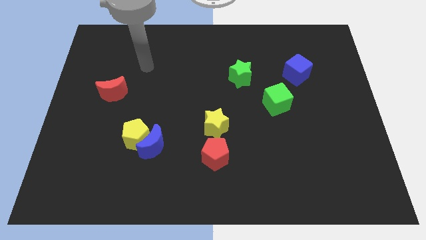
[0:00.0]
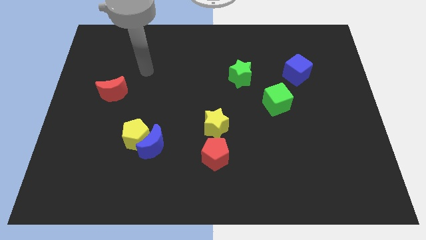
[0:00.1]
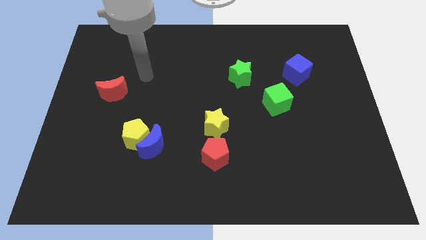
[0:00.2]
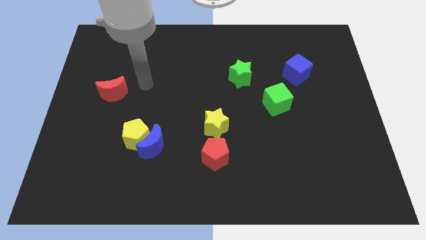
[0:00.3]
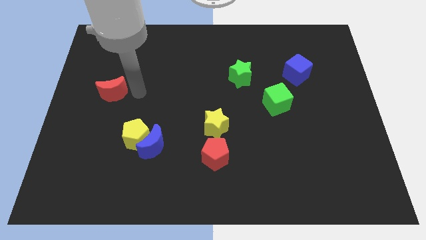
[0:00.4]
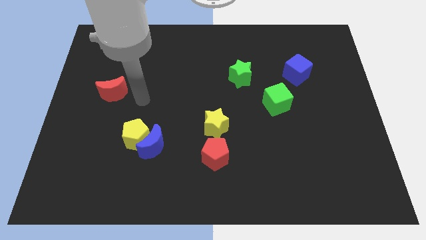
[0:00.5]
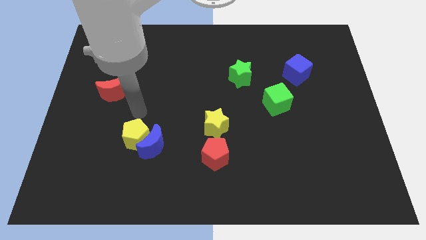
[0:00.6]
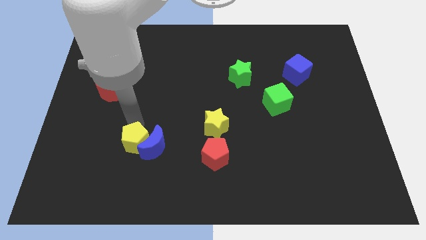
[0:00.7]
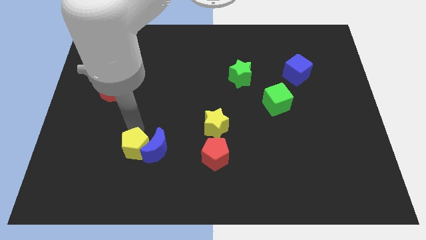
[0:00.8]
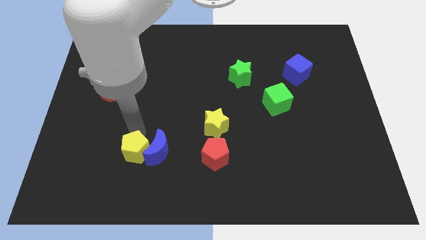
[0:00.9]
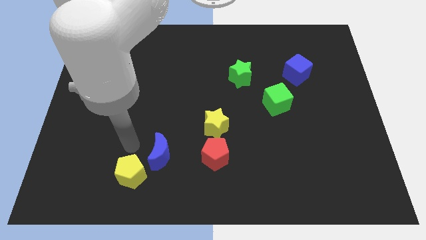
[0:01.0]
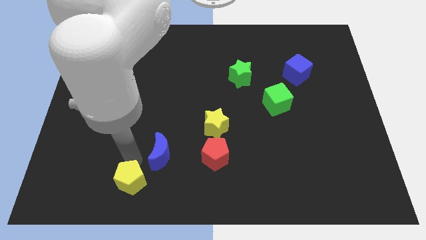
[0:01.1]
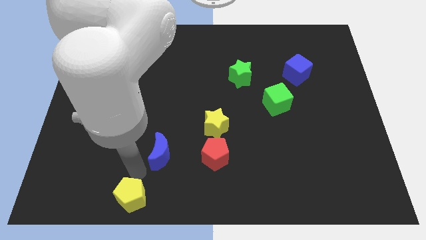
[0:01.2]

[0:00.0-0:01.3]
pull the blue moon apart from the yellow pentagon

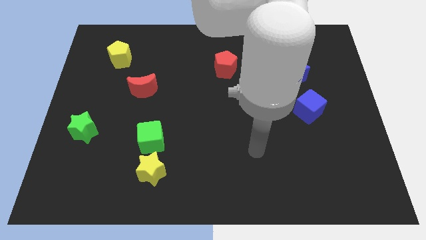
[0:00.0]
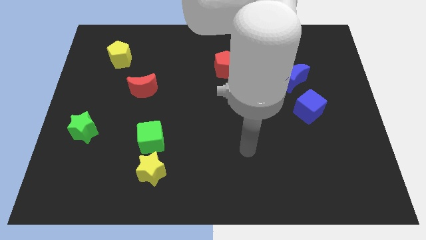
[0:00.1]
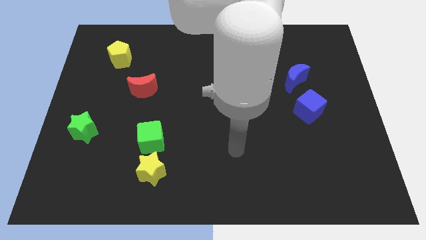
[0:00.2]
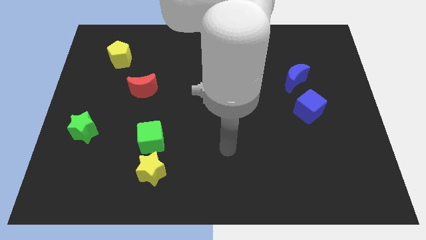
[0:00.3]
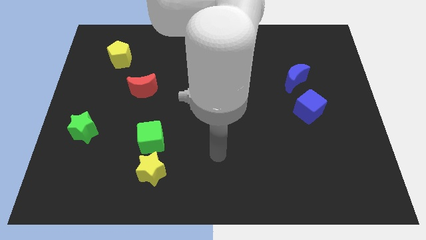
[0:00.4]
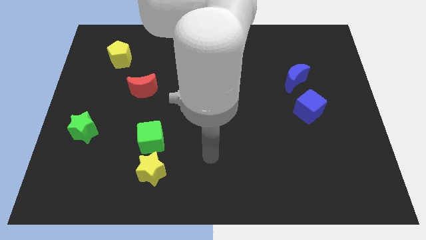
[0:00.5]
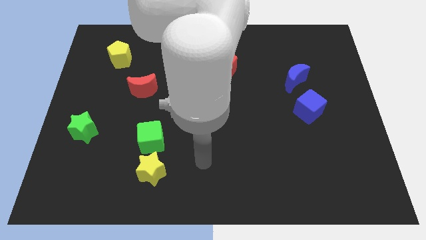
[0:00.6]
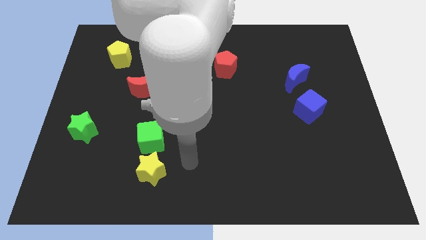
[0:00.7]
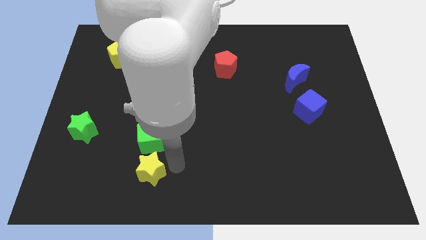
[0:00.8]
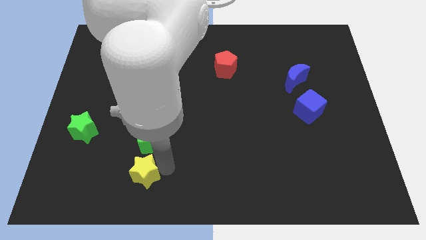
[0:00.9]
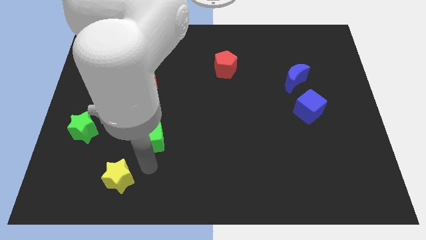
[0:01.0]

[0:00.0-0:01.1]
separate the green cube from the yellow star

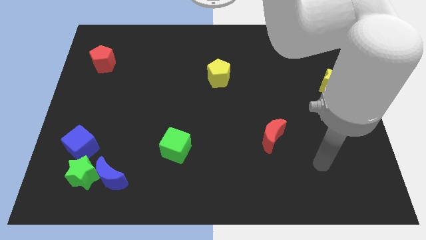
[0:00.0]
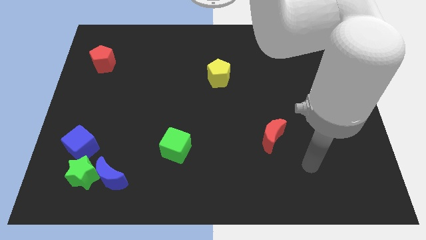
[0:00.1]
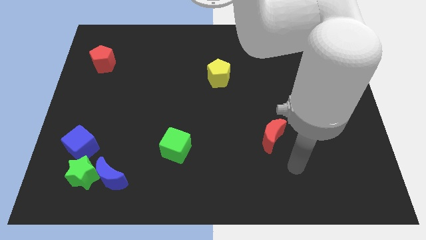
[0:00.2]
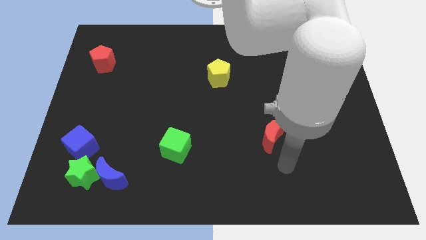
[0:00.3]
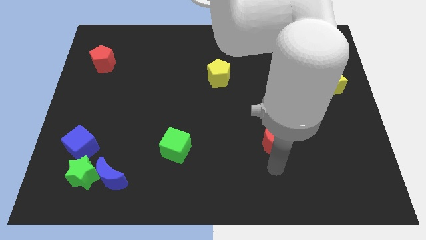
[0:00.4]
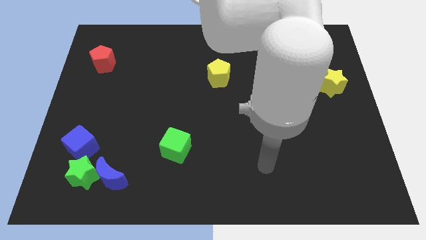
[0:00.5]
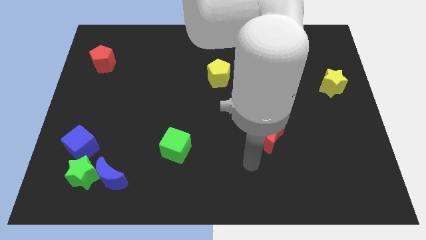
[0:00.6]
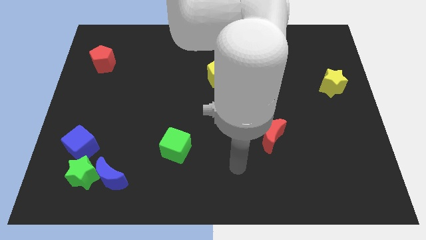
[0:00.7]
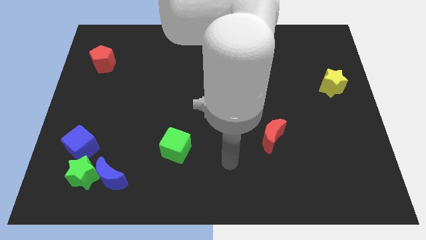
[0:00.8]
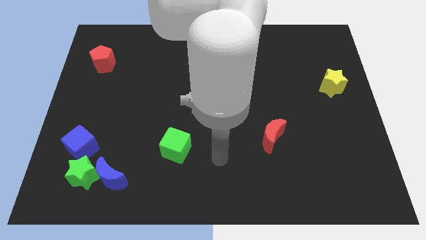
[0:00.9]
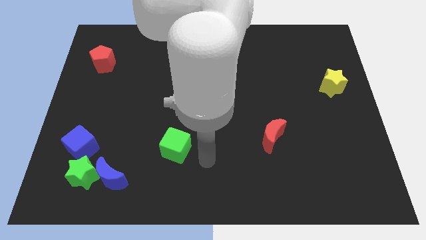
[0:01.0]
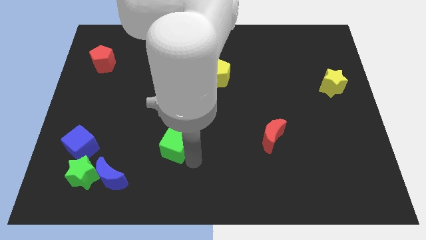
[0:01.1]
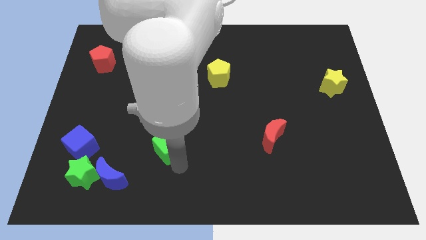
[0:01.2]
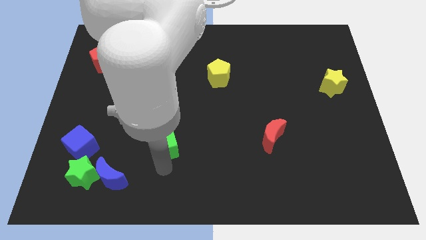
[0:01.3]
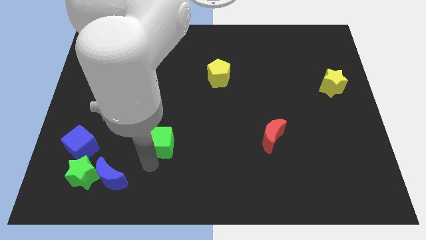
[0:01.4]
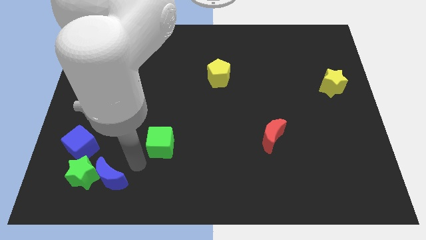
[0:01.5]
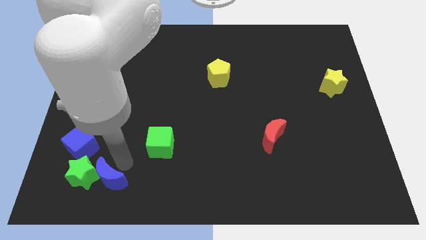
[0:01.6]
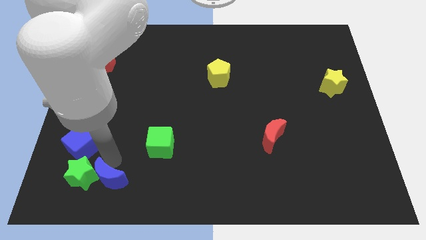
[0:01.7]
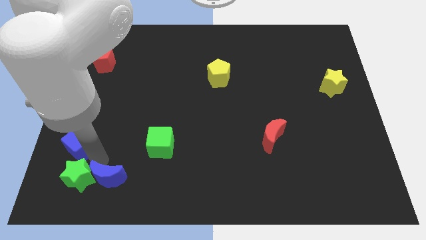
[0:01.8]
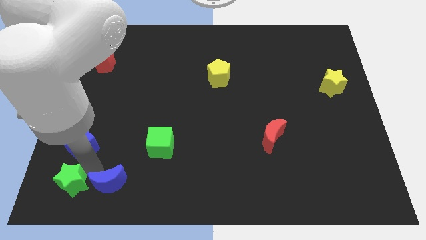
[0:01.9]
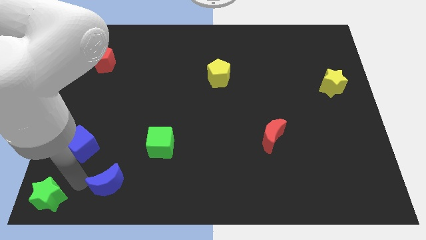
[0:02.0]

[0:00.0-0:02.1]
move the blue moon away from the green star

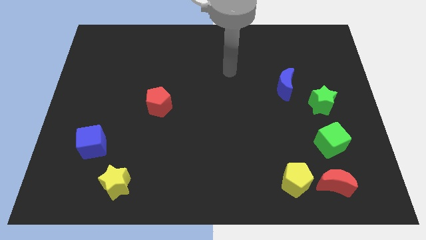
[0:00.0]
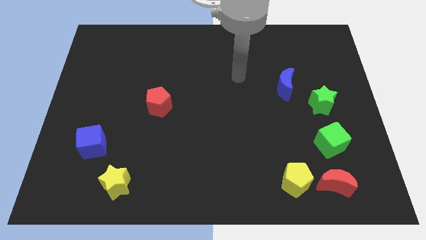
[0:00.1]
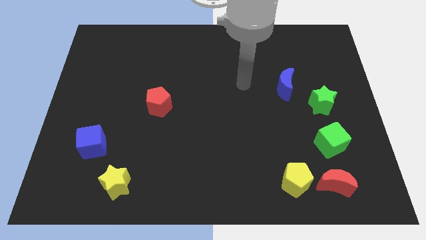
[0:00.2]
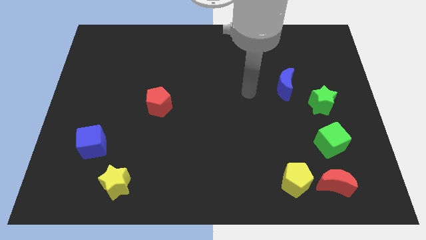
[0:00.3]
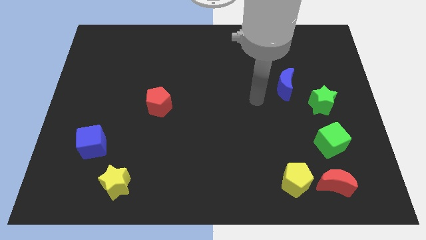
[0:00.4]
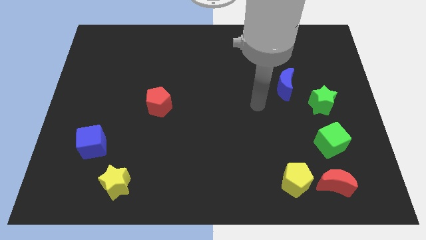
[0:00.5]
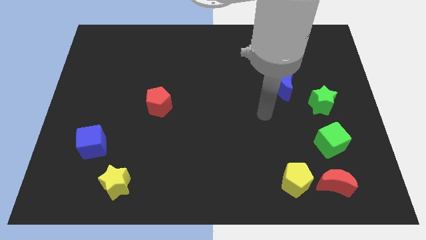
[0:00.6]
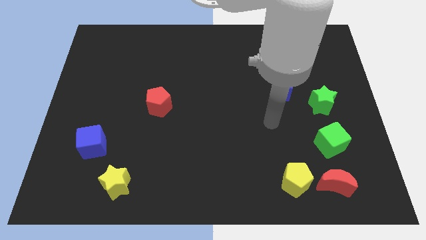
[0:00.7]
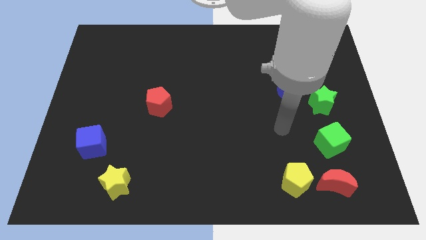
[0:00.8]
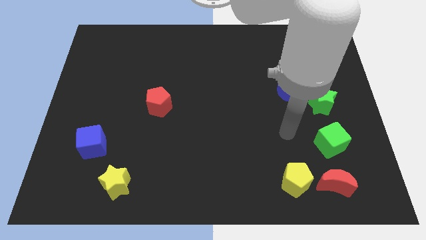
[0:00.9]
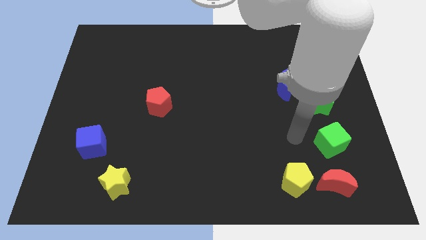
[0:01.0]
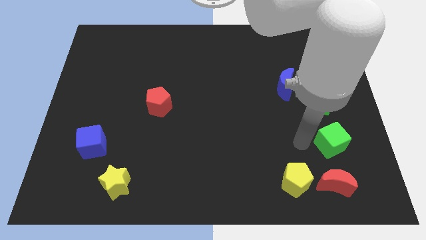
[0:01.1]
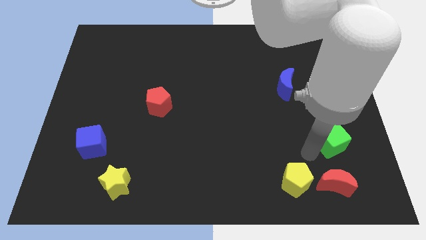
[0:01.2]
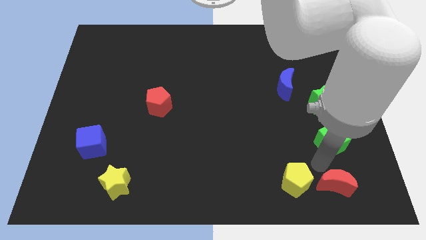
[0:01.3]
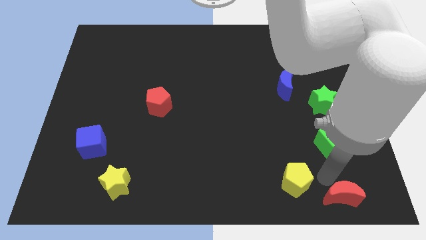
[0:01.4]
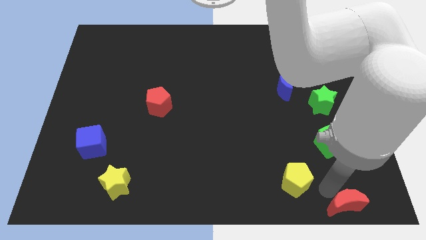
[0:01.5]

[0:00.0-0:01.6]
separate the yellow pentagon from the red moon

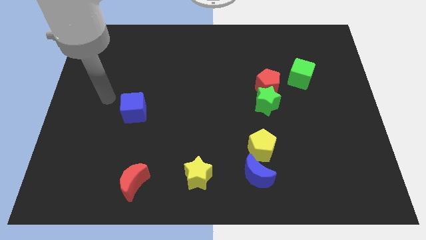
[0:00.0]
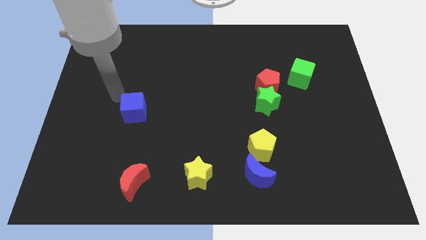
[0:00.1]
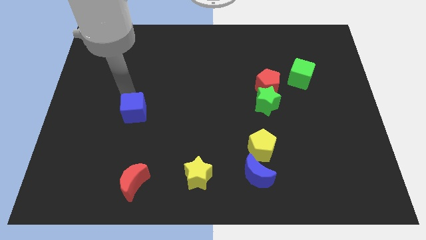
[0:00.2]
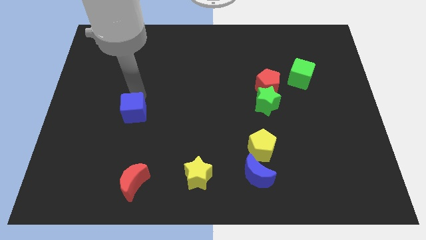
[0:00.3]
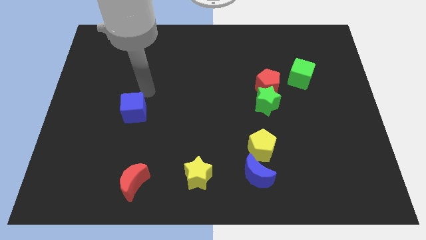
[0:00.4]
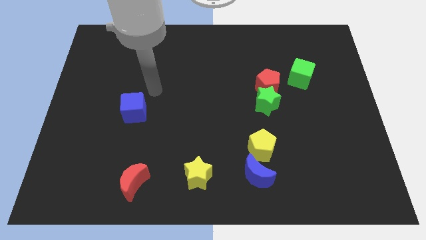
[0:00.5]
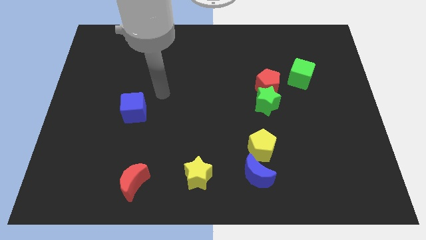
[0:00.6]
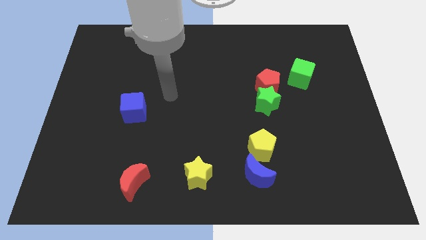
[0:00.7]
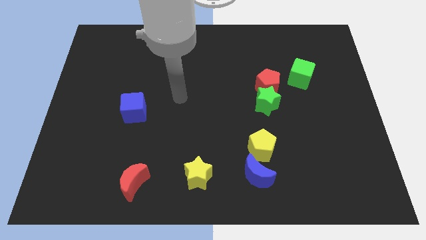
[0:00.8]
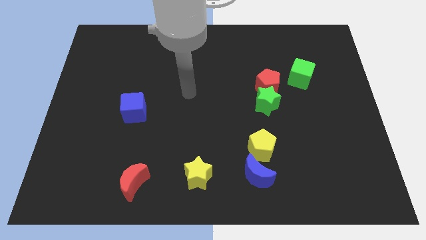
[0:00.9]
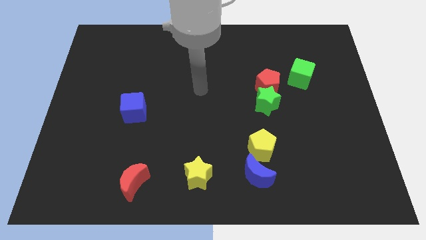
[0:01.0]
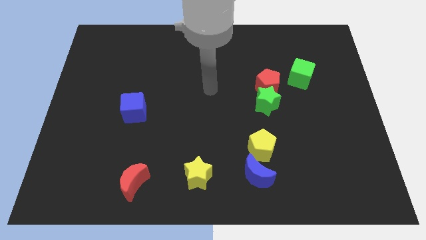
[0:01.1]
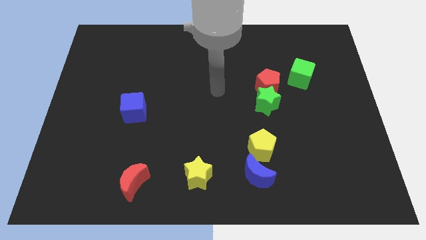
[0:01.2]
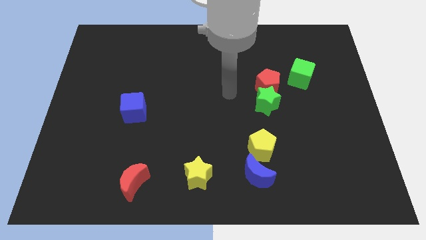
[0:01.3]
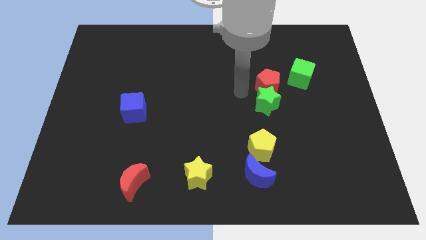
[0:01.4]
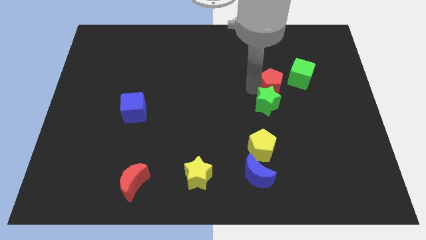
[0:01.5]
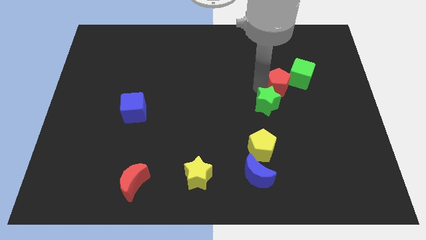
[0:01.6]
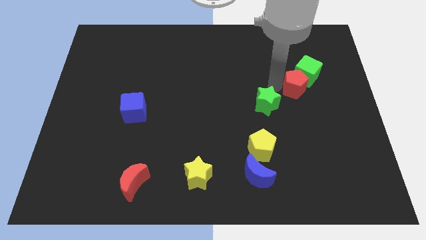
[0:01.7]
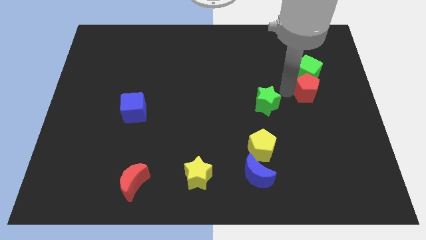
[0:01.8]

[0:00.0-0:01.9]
pull the green star apart from the red pentagon

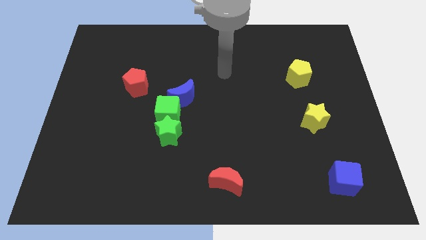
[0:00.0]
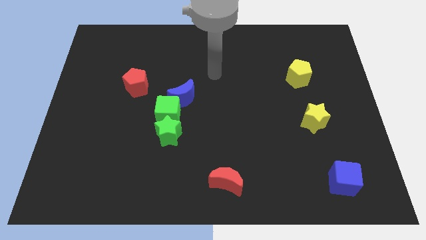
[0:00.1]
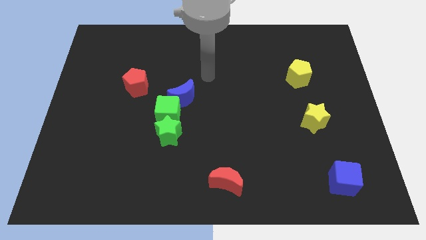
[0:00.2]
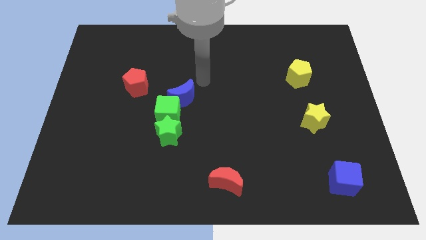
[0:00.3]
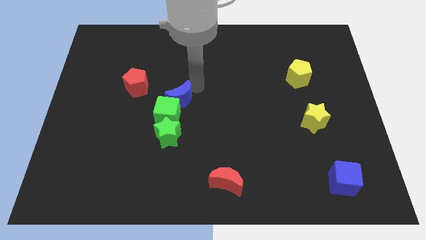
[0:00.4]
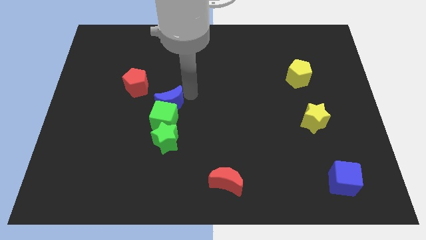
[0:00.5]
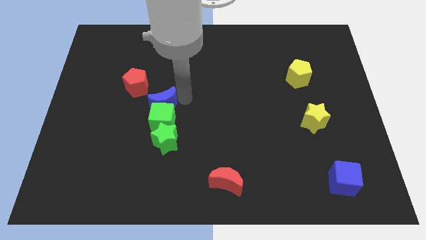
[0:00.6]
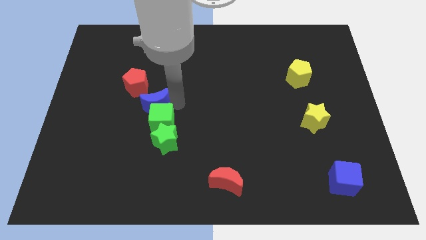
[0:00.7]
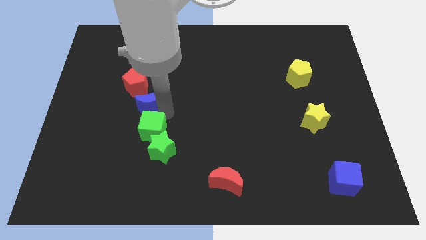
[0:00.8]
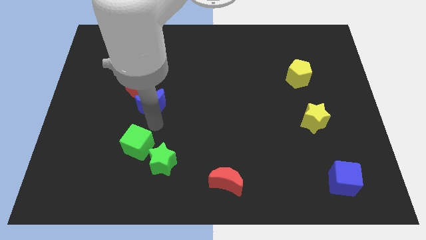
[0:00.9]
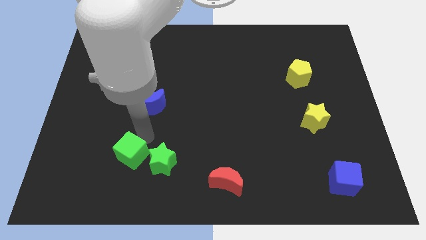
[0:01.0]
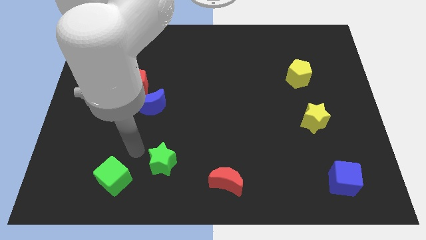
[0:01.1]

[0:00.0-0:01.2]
pull the green star apart from the green cube
